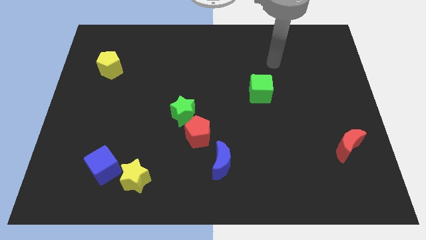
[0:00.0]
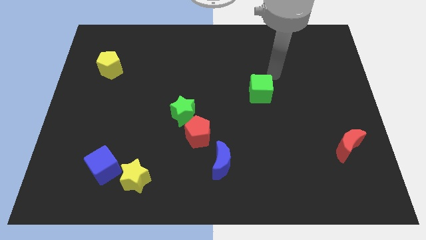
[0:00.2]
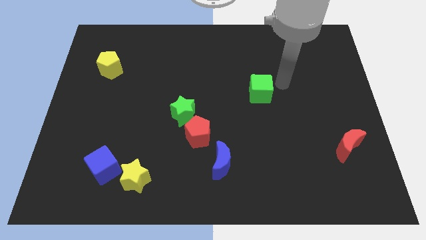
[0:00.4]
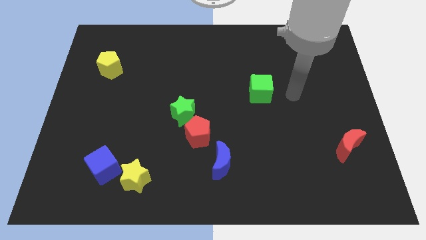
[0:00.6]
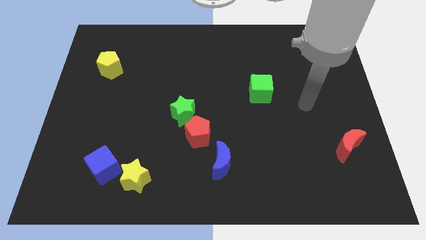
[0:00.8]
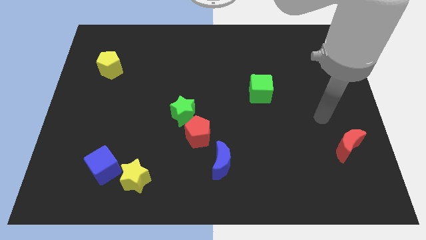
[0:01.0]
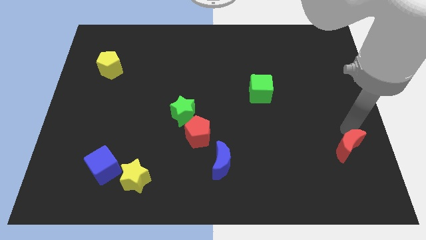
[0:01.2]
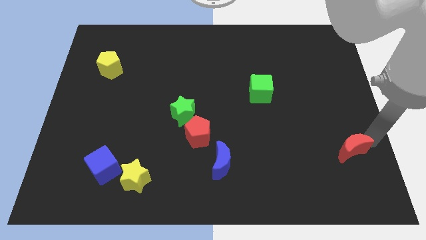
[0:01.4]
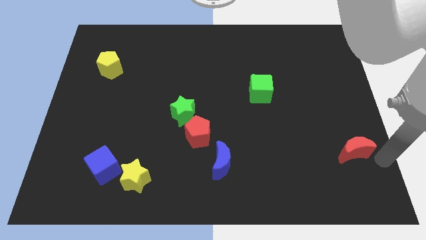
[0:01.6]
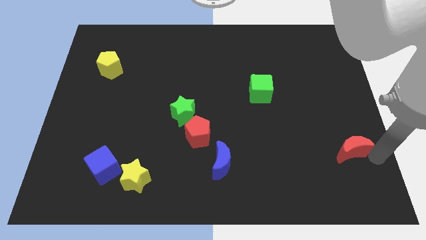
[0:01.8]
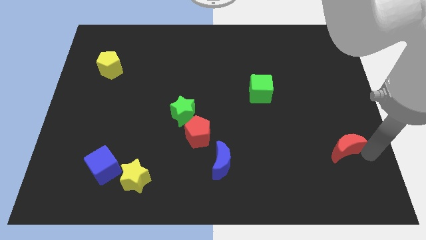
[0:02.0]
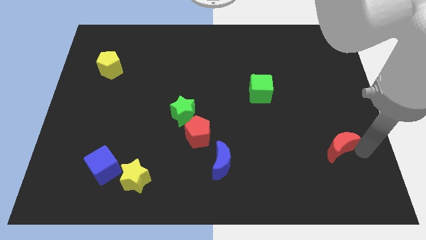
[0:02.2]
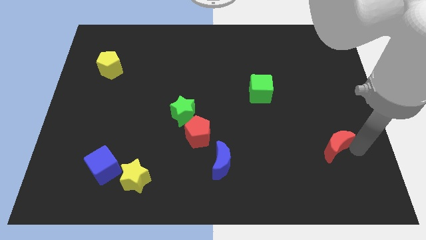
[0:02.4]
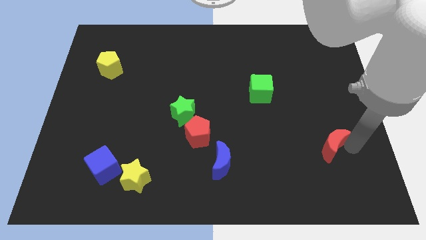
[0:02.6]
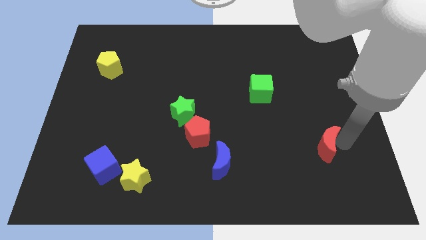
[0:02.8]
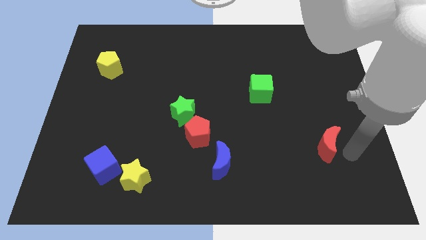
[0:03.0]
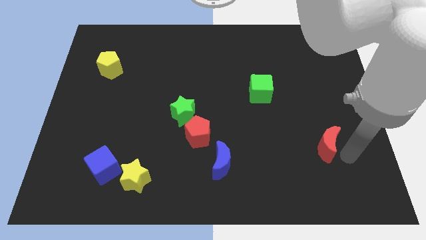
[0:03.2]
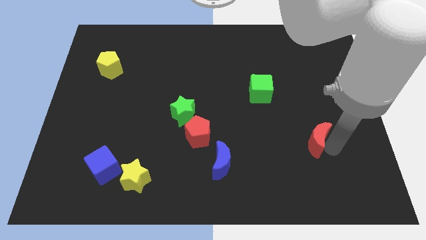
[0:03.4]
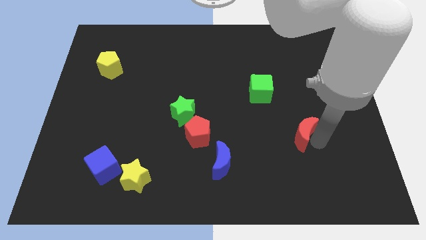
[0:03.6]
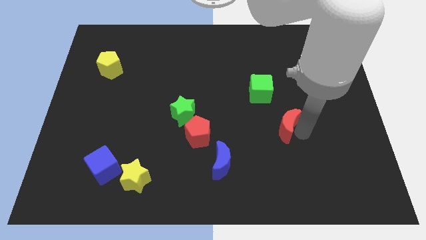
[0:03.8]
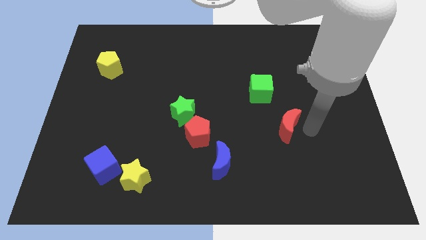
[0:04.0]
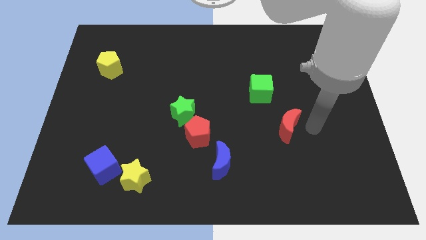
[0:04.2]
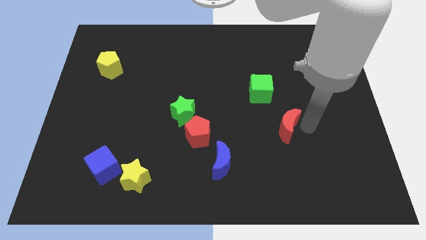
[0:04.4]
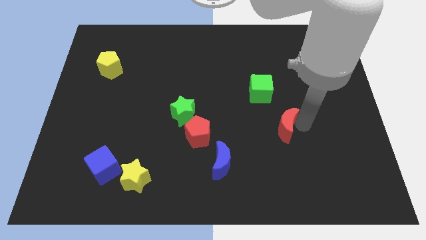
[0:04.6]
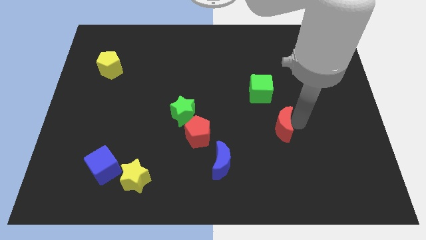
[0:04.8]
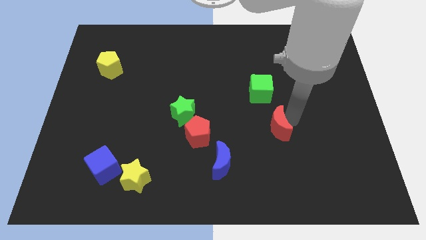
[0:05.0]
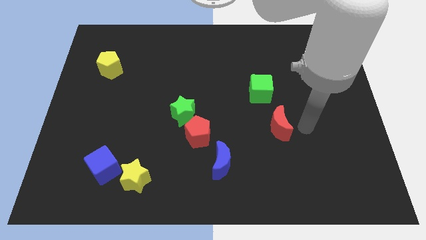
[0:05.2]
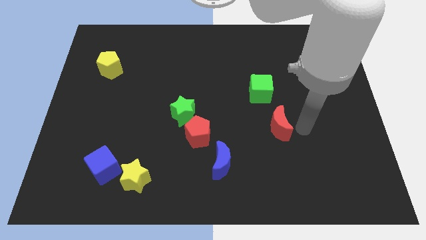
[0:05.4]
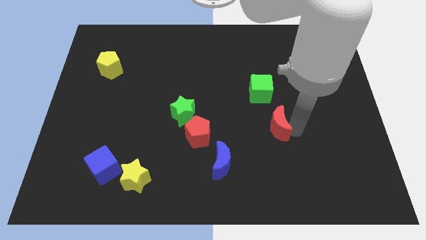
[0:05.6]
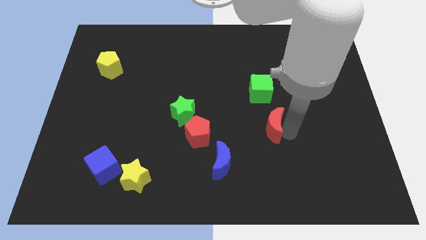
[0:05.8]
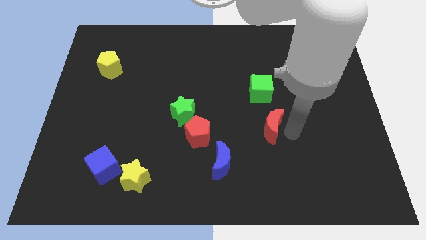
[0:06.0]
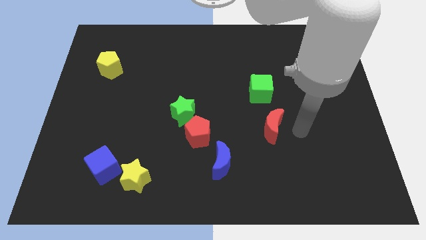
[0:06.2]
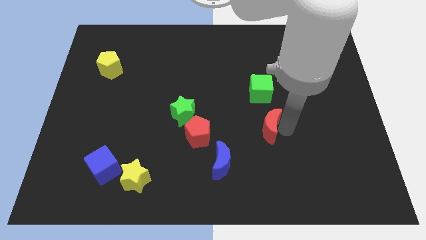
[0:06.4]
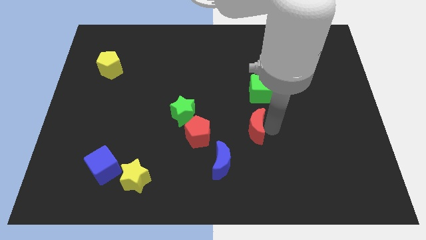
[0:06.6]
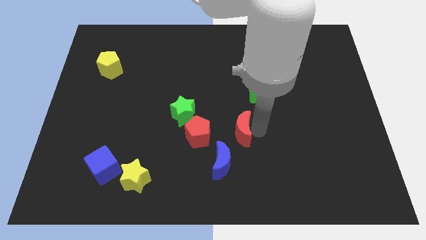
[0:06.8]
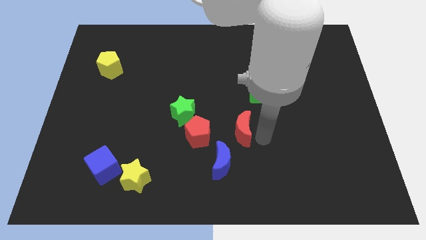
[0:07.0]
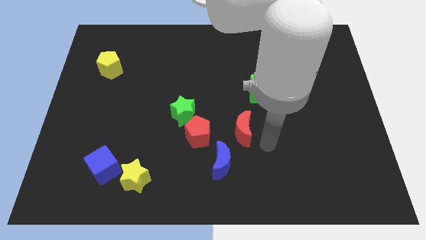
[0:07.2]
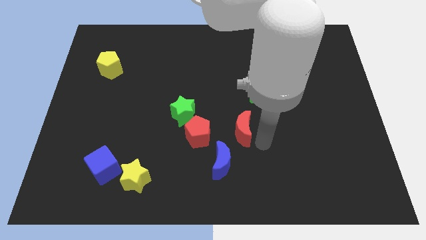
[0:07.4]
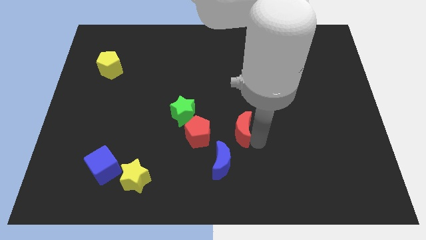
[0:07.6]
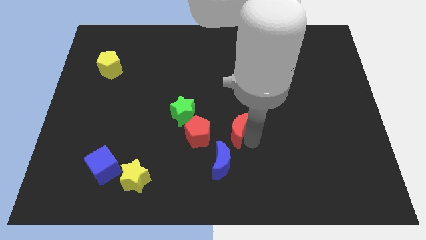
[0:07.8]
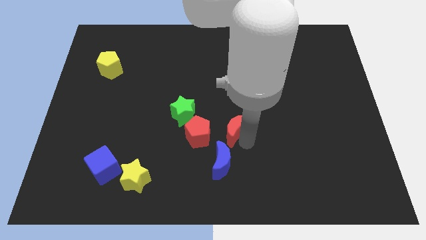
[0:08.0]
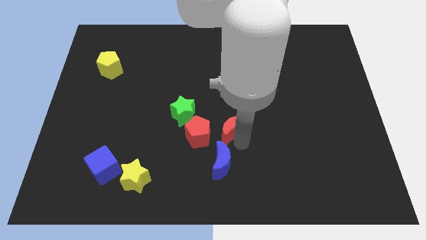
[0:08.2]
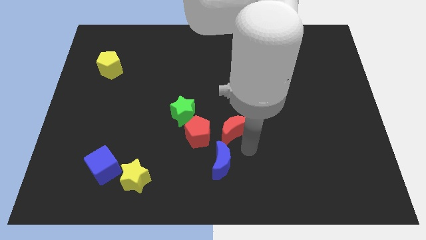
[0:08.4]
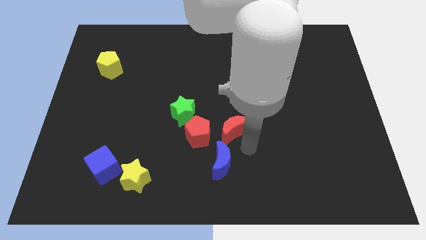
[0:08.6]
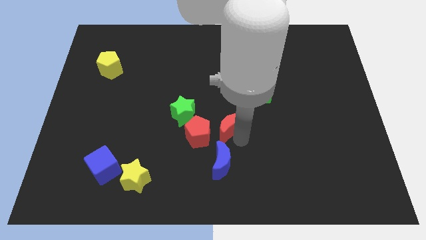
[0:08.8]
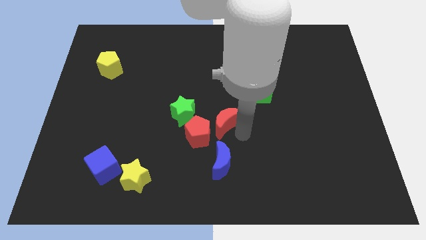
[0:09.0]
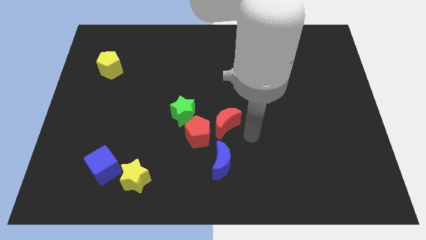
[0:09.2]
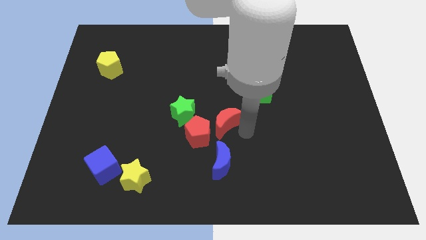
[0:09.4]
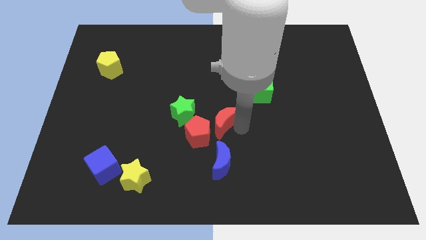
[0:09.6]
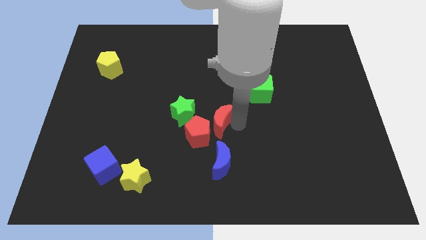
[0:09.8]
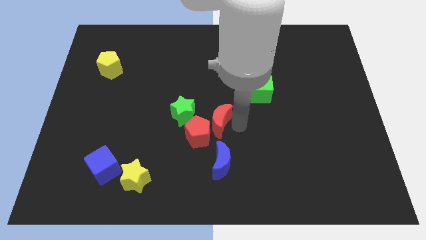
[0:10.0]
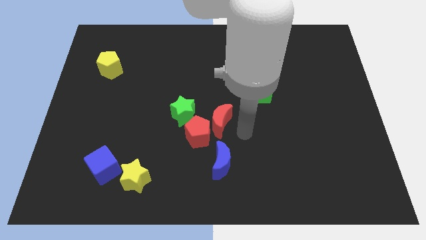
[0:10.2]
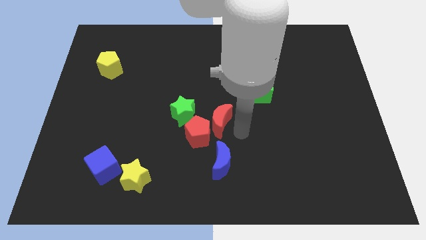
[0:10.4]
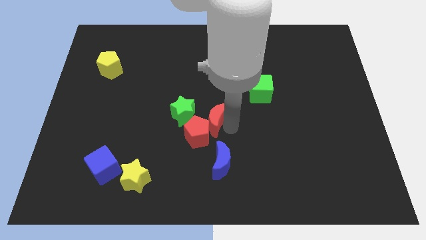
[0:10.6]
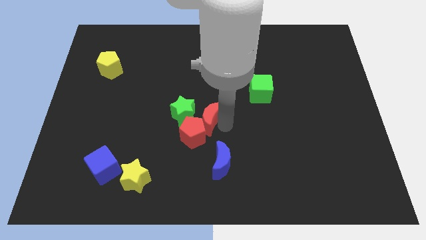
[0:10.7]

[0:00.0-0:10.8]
slide the red moon to the green star
